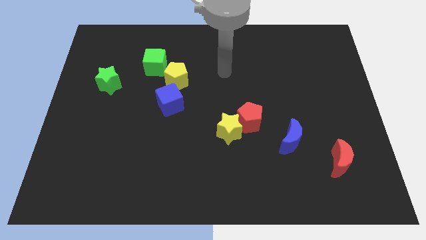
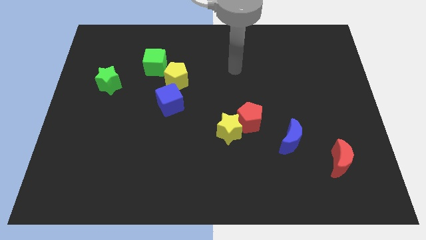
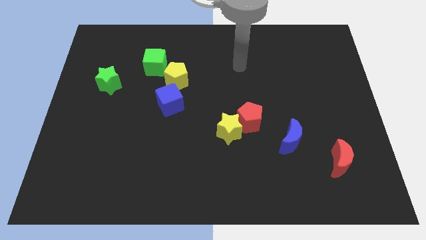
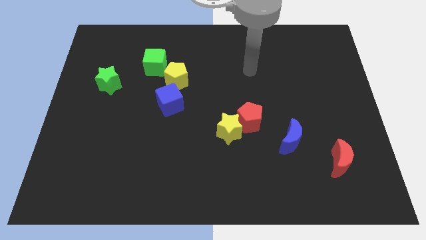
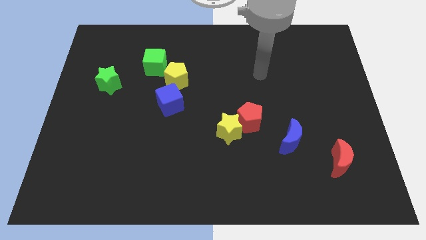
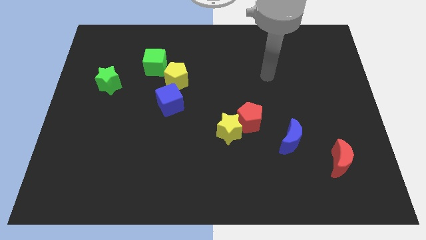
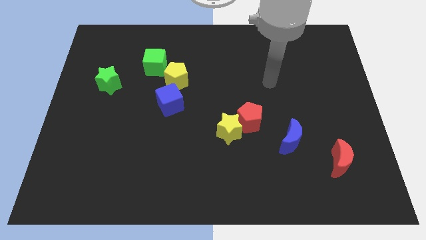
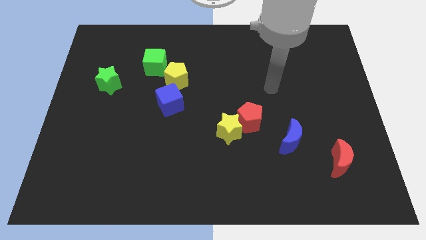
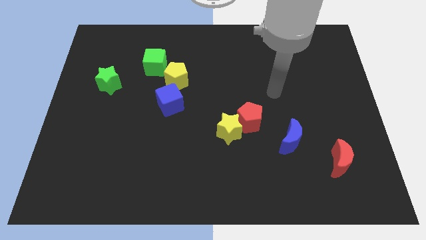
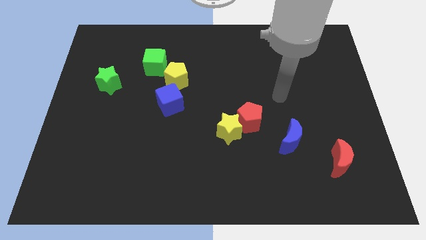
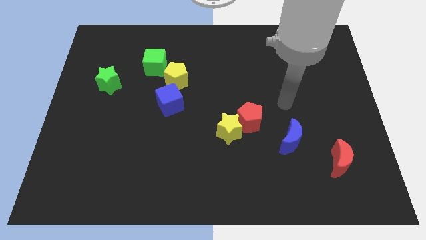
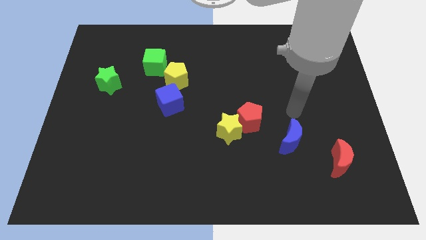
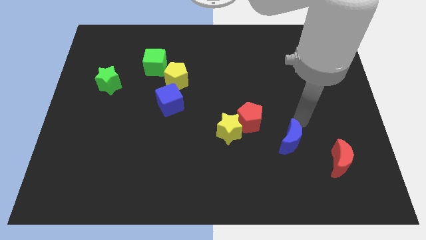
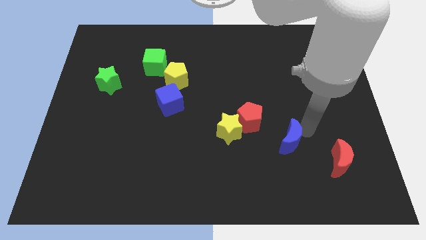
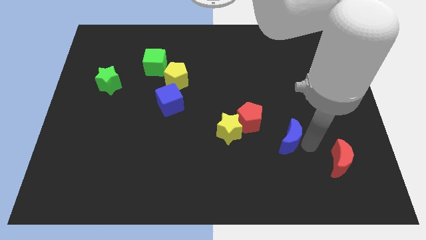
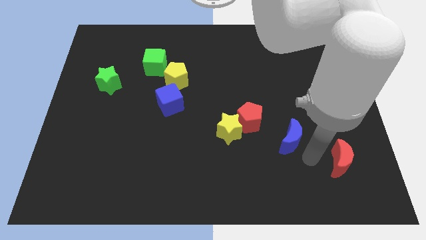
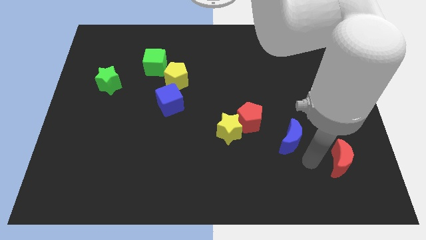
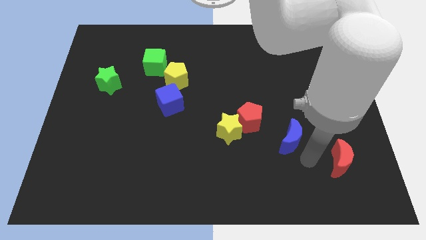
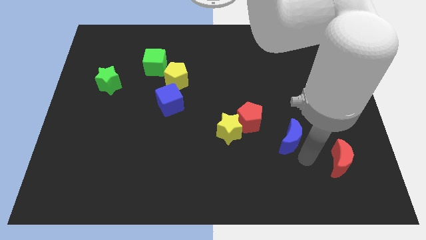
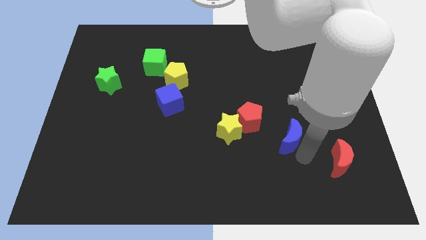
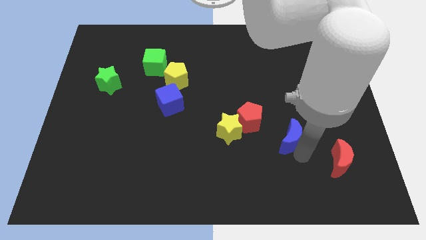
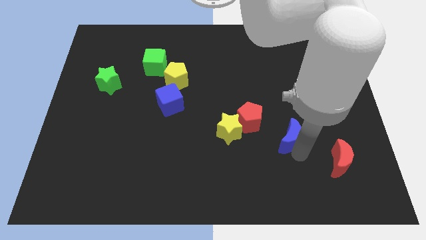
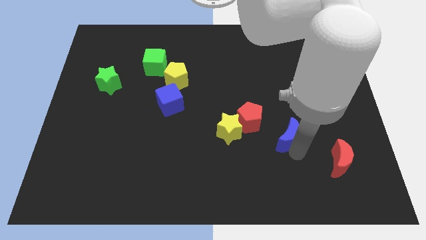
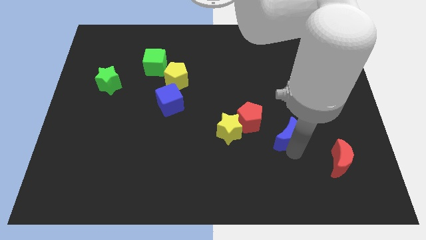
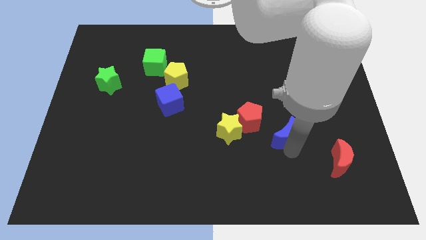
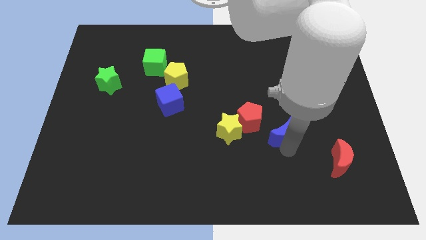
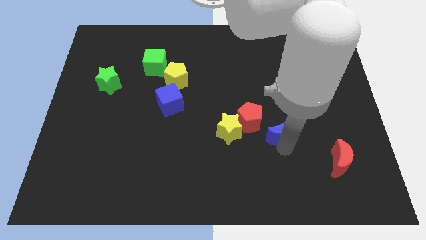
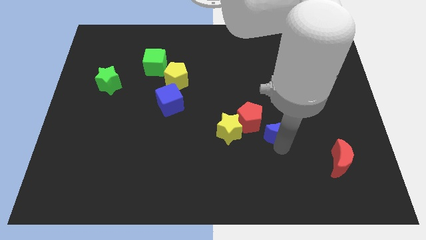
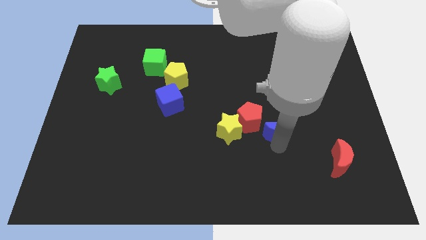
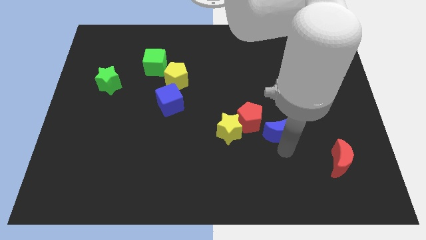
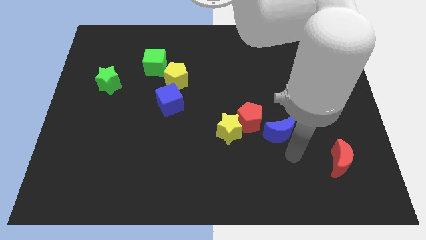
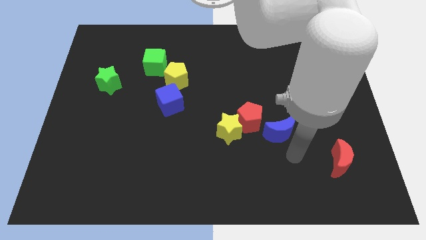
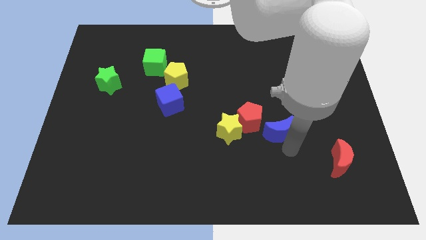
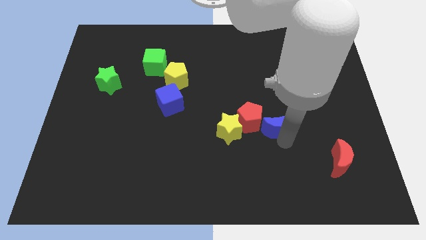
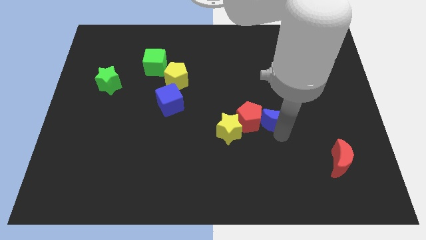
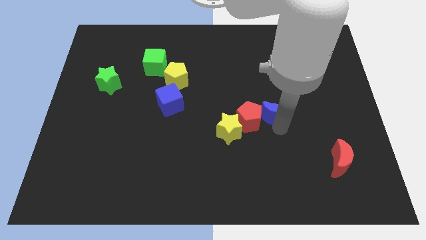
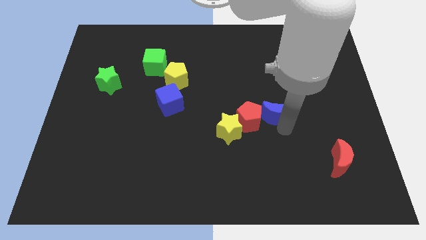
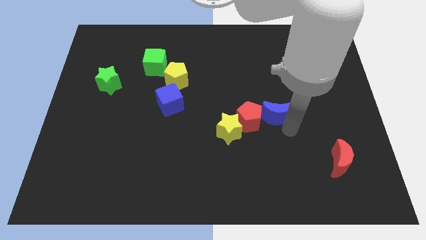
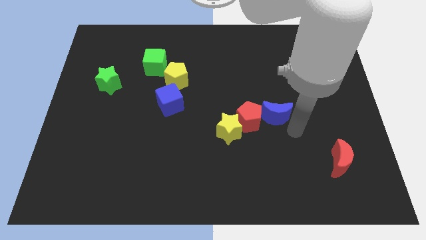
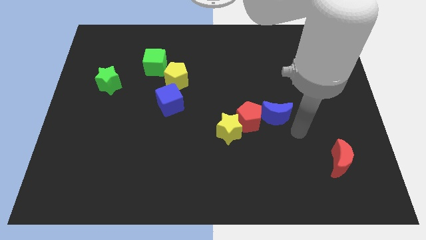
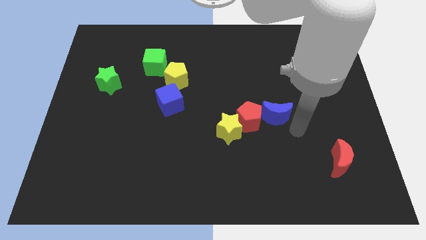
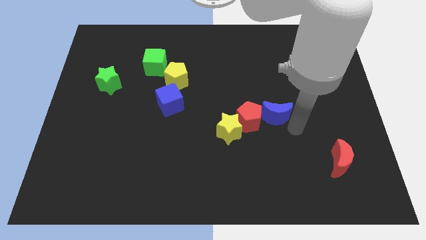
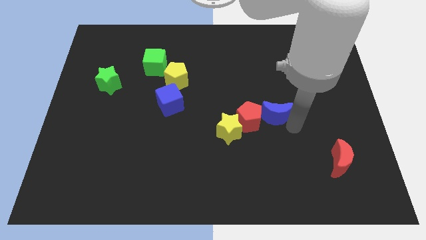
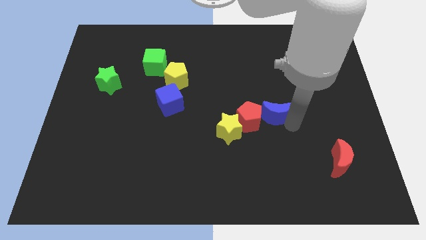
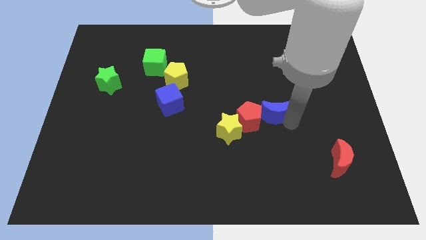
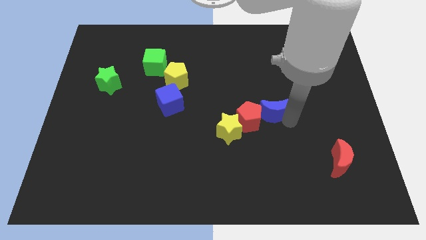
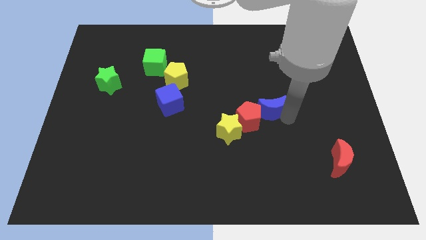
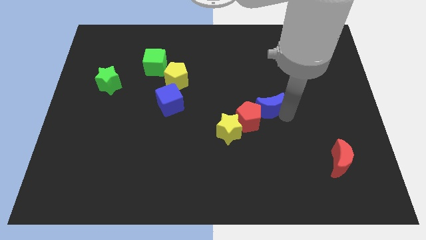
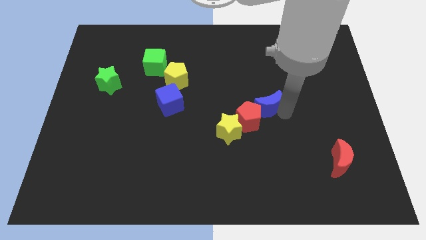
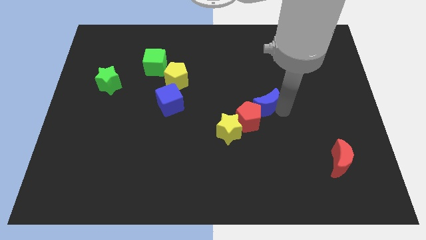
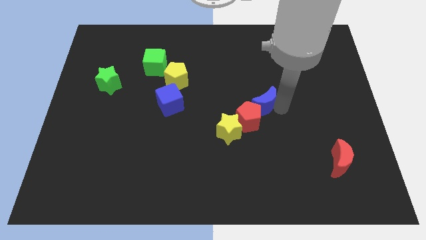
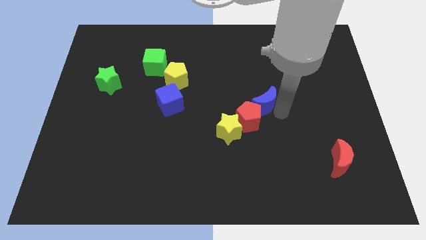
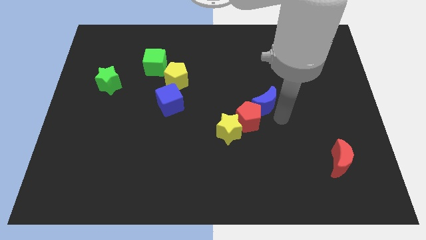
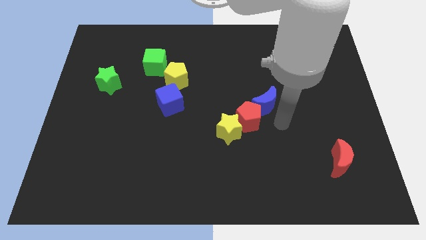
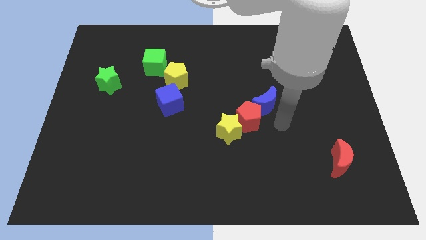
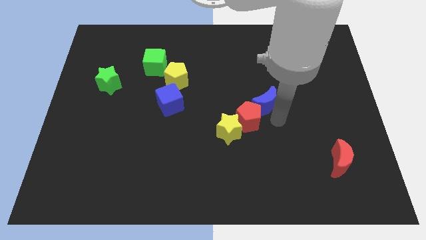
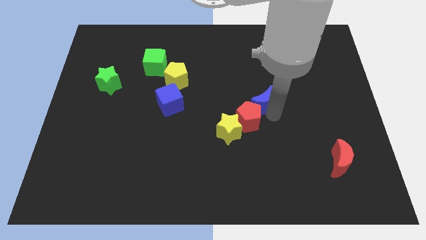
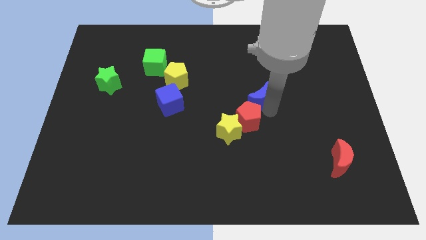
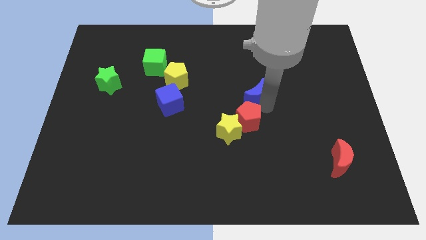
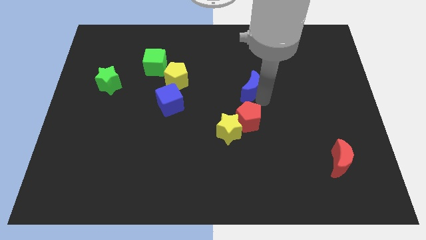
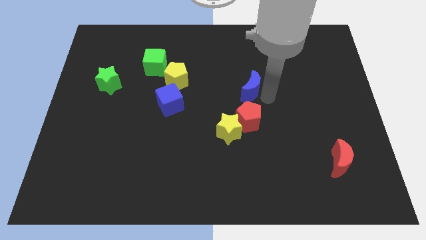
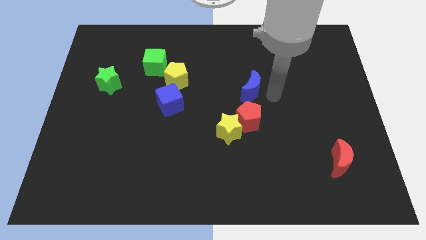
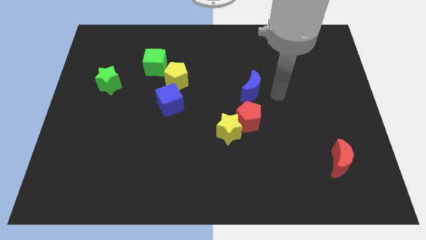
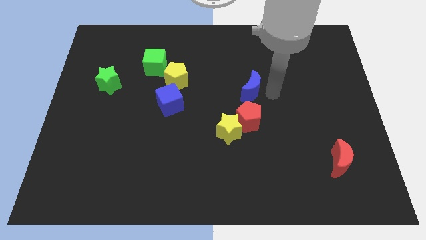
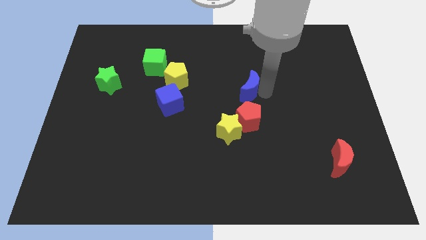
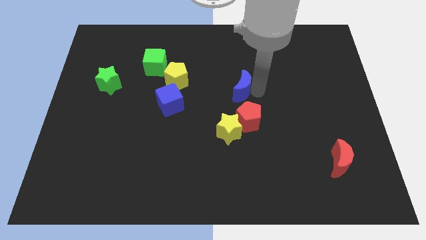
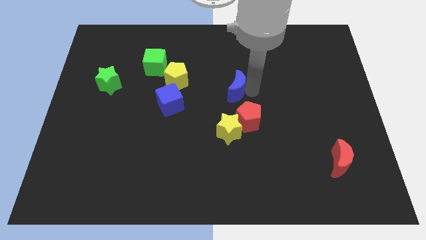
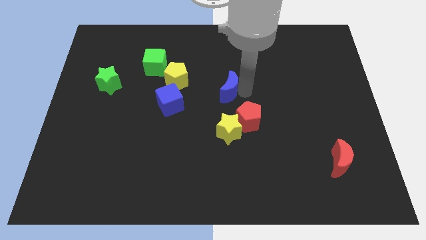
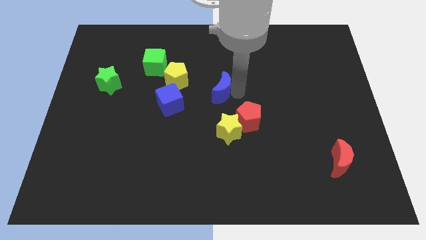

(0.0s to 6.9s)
push the blue moon diagonally up and left

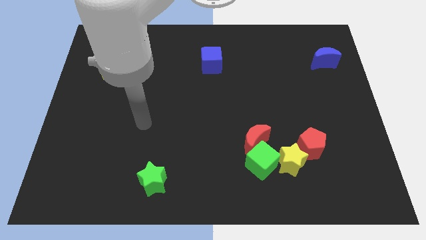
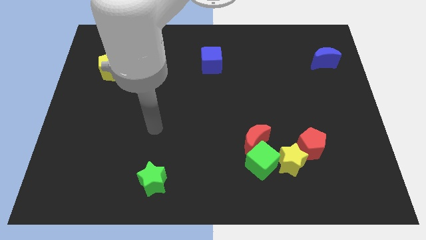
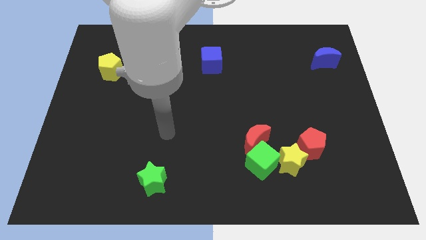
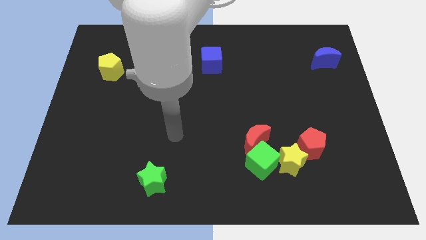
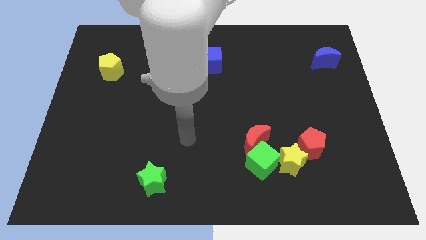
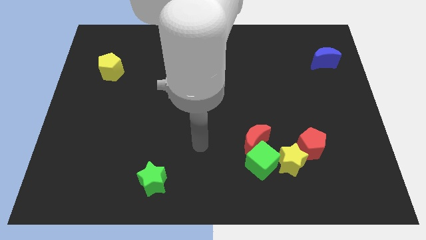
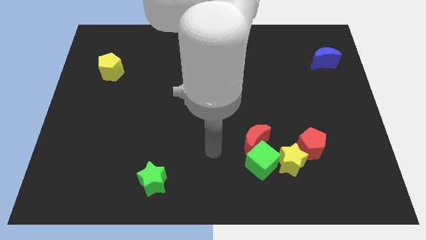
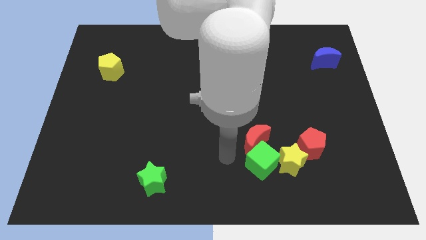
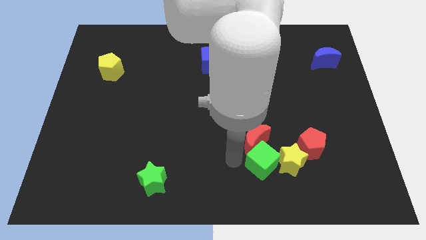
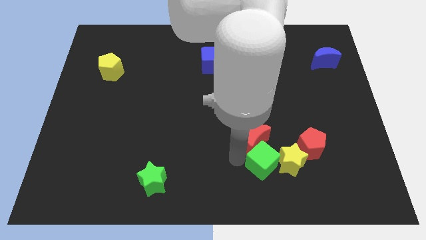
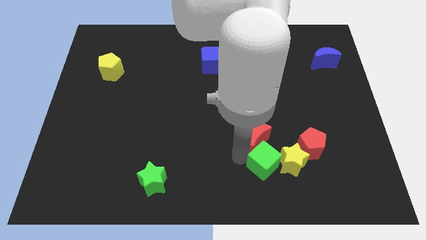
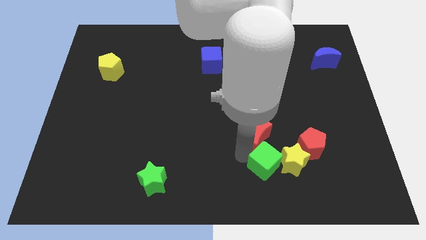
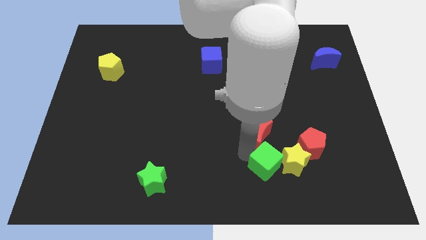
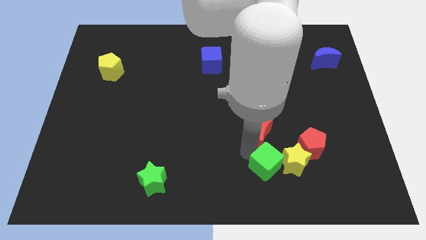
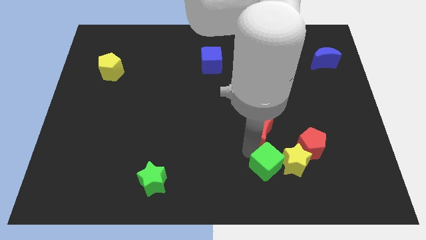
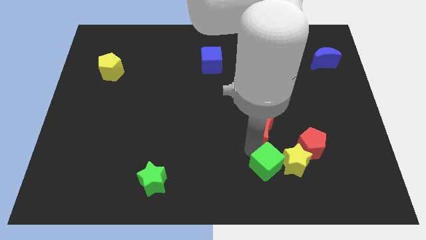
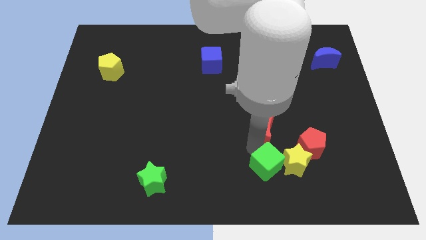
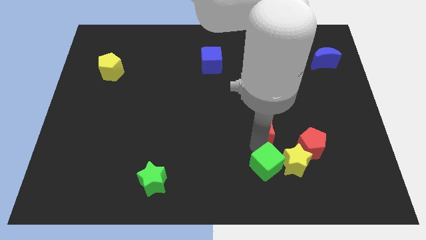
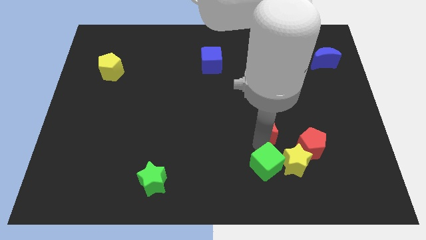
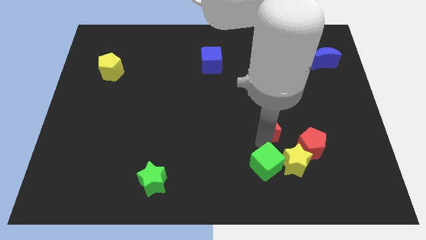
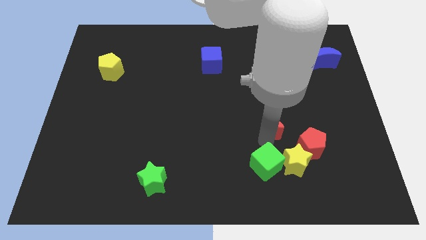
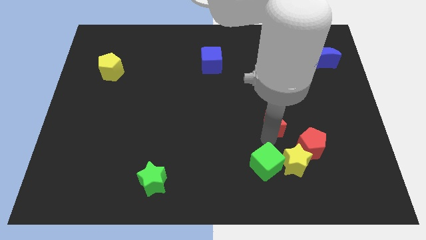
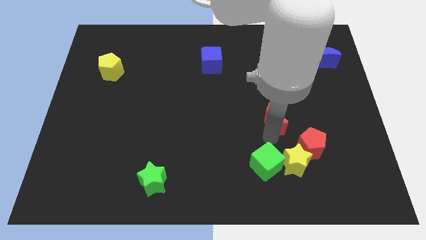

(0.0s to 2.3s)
slightly push the red moon upwards and then to the right
